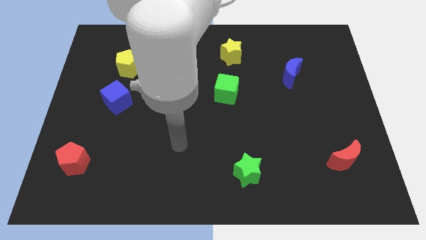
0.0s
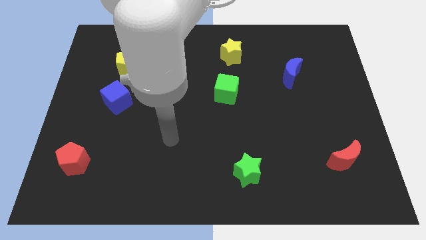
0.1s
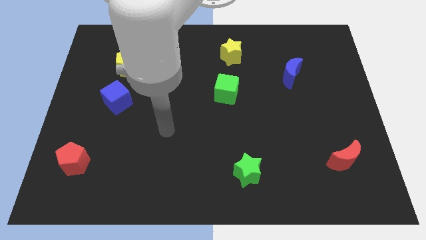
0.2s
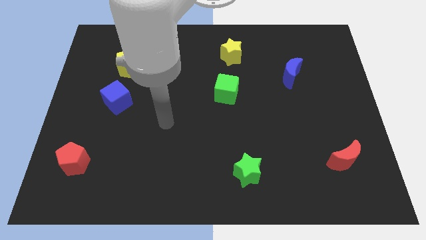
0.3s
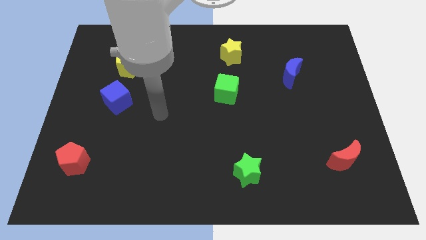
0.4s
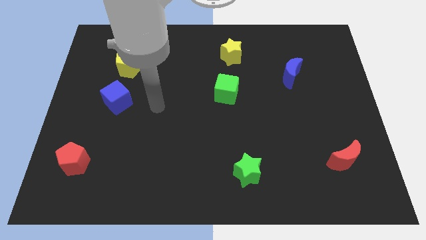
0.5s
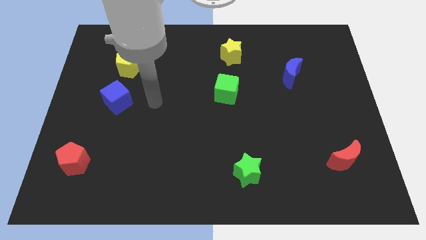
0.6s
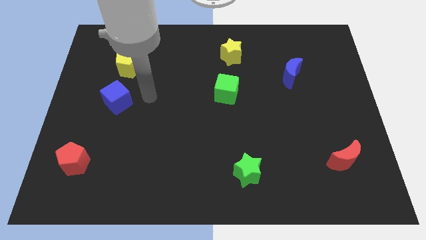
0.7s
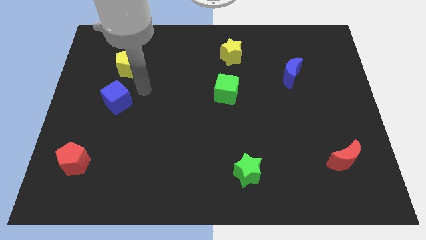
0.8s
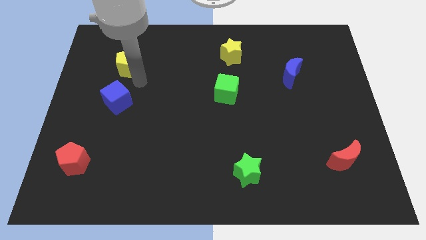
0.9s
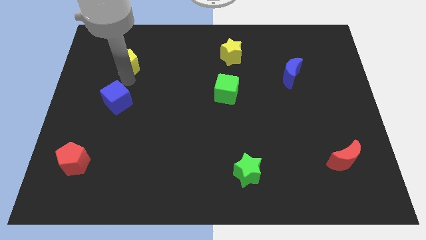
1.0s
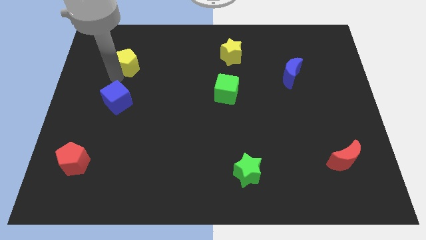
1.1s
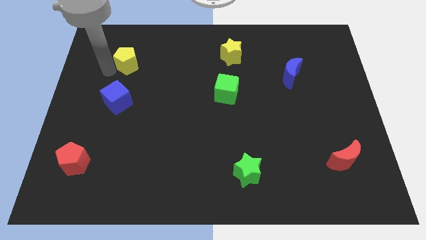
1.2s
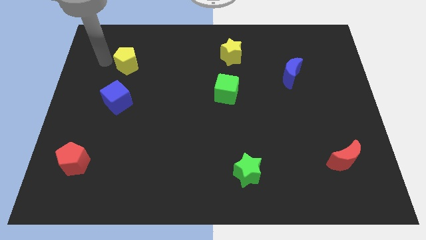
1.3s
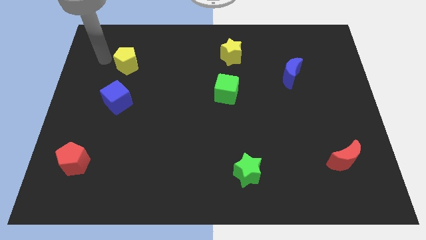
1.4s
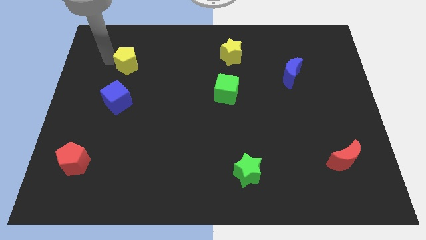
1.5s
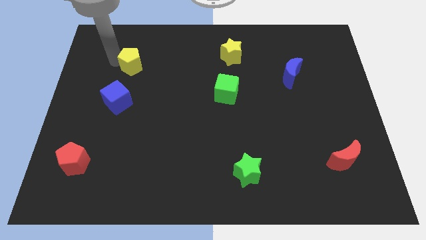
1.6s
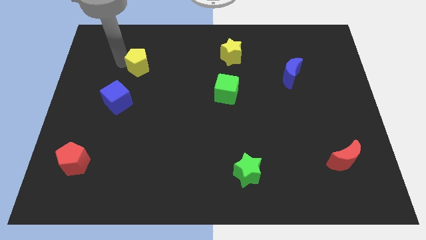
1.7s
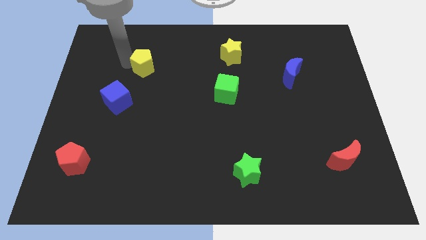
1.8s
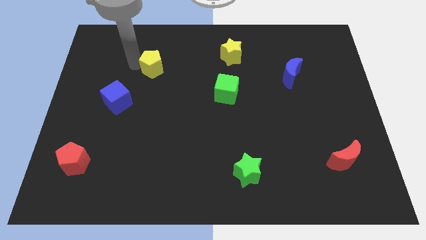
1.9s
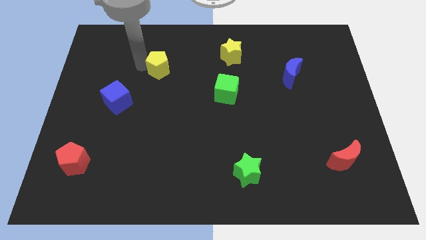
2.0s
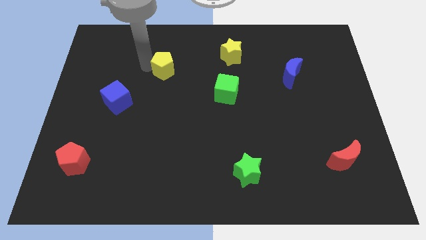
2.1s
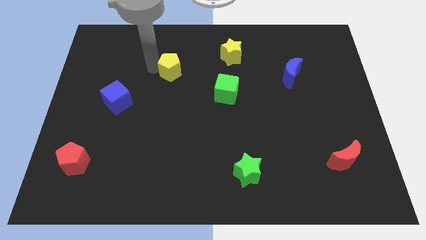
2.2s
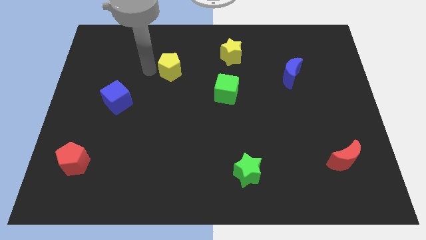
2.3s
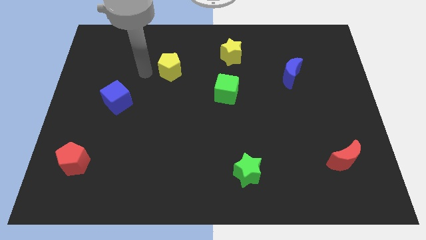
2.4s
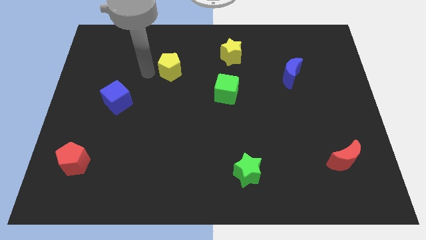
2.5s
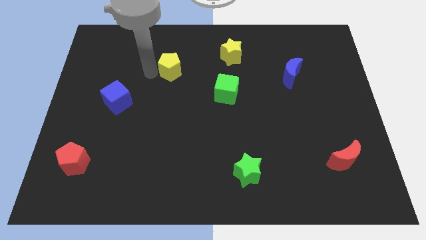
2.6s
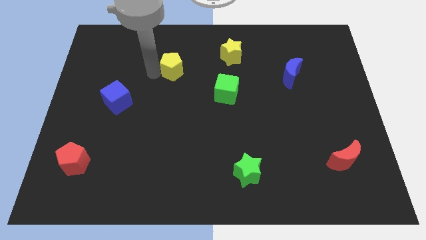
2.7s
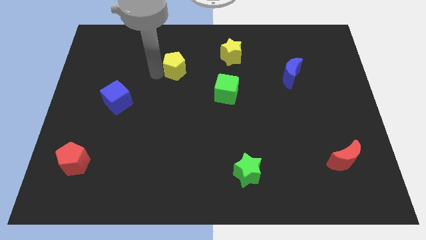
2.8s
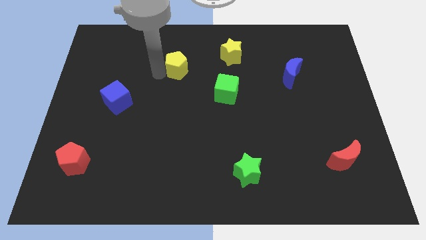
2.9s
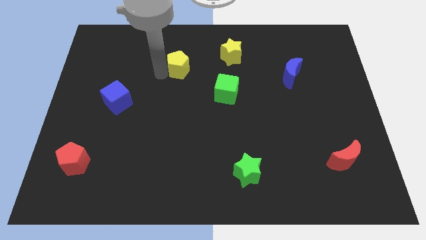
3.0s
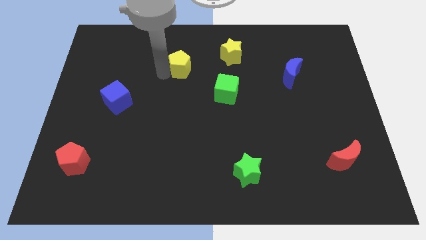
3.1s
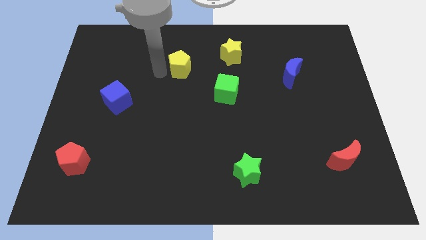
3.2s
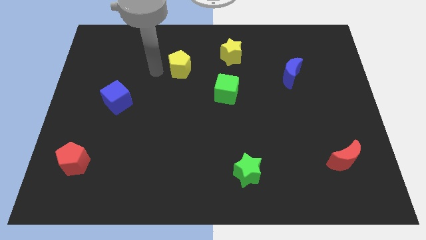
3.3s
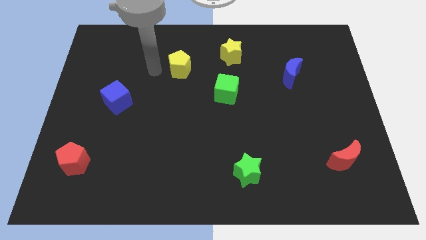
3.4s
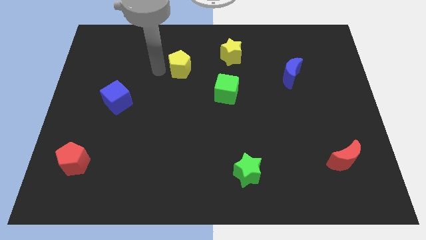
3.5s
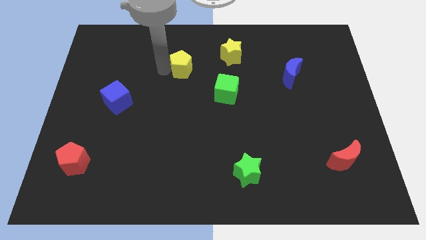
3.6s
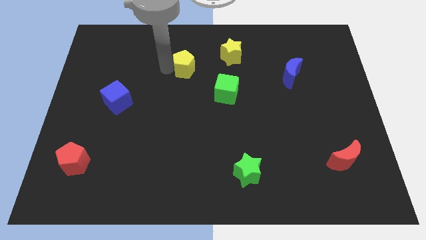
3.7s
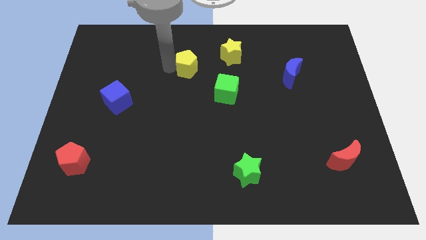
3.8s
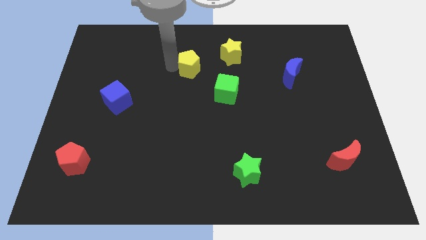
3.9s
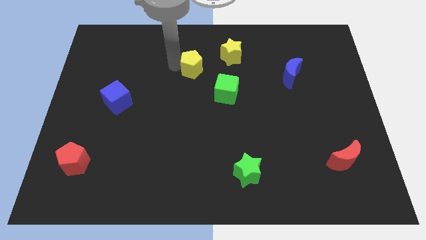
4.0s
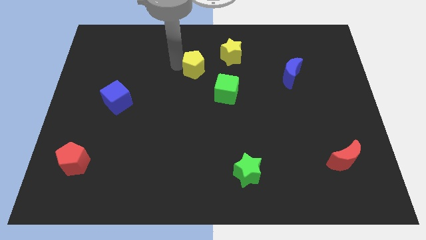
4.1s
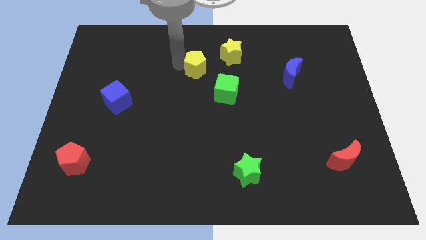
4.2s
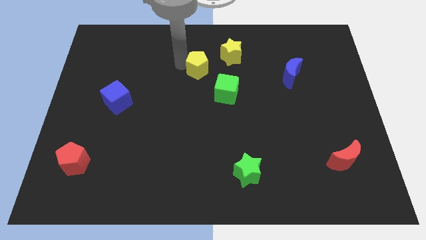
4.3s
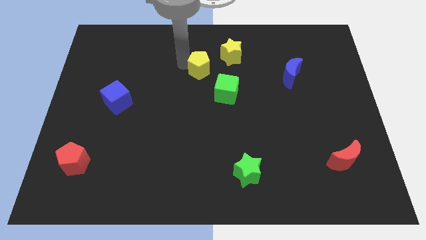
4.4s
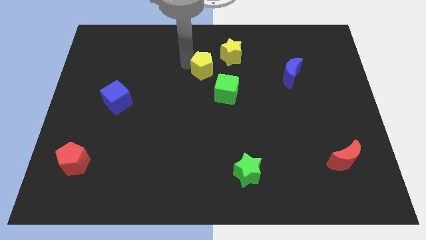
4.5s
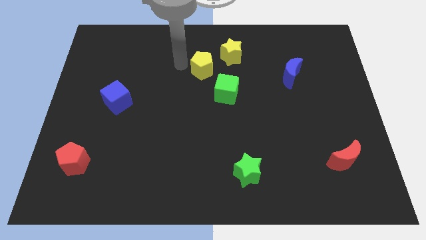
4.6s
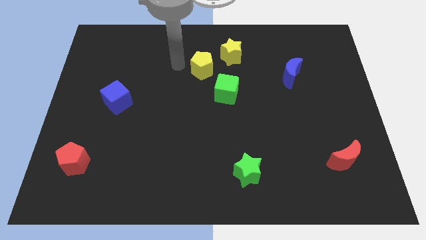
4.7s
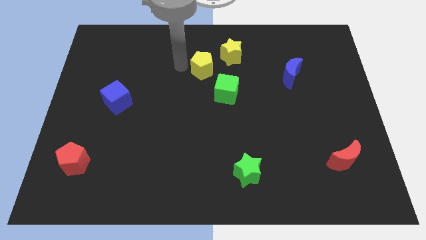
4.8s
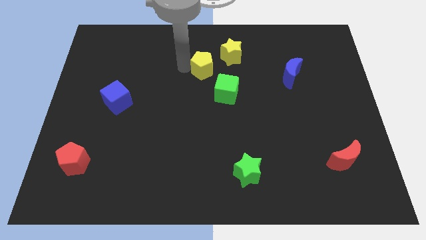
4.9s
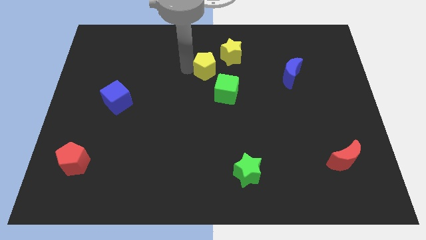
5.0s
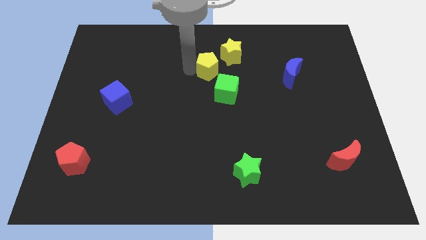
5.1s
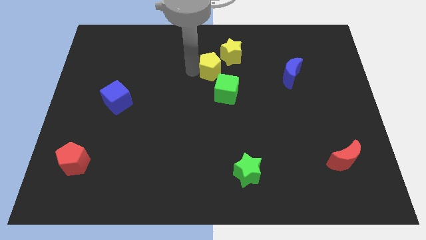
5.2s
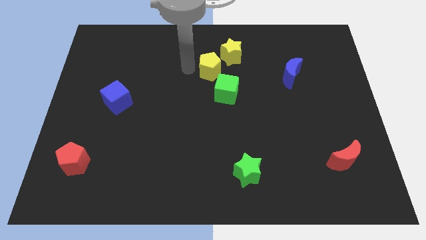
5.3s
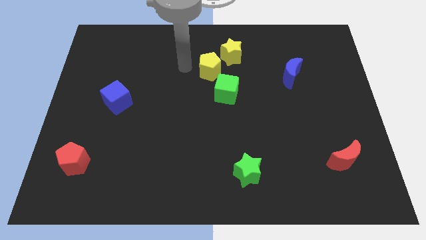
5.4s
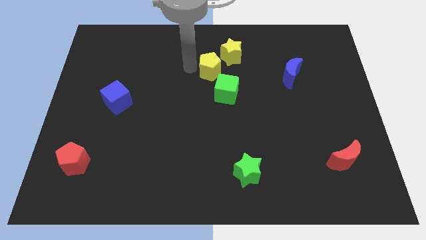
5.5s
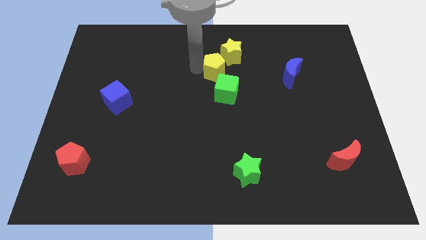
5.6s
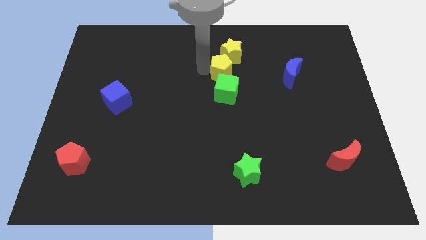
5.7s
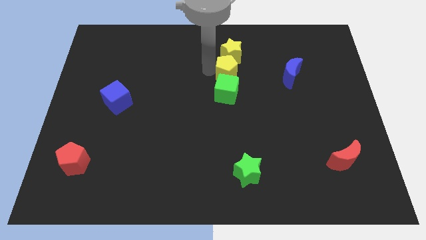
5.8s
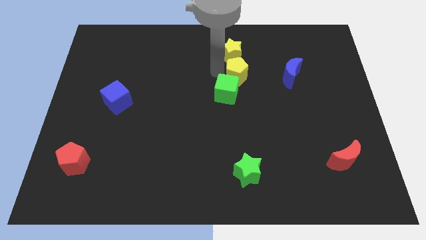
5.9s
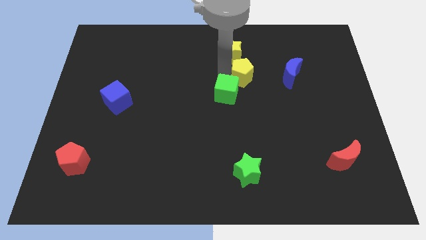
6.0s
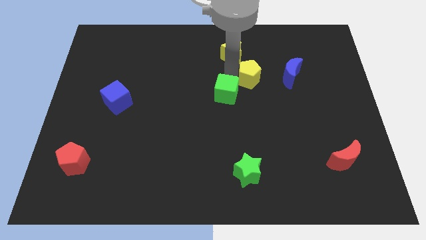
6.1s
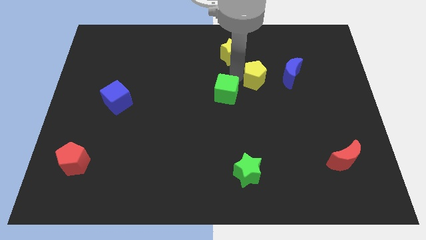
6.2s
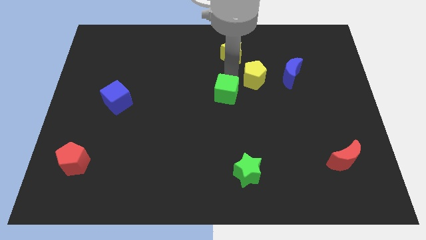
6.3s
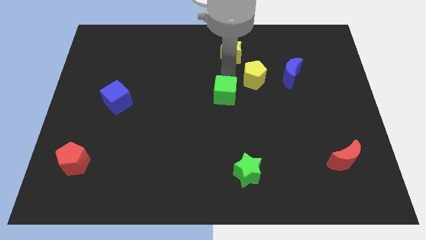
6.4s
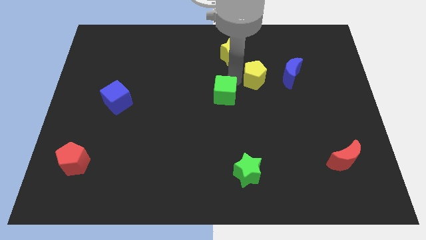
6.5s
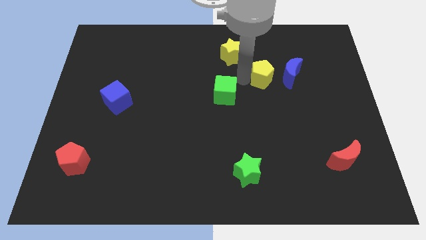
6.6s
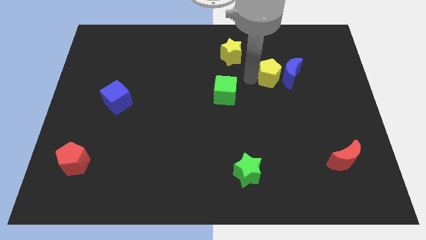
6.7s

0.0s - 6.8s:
slide the yellow pentagon to the blue moon

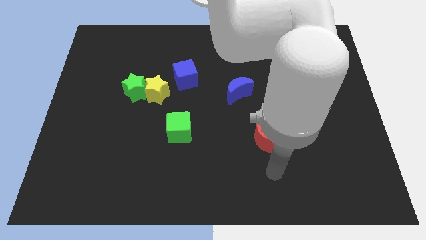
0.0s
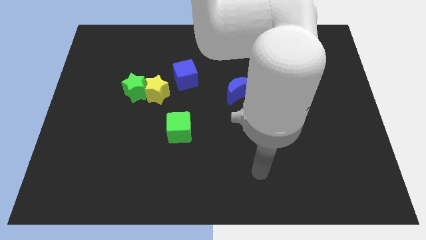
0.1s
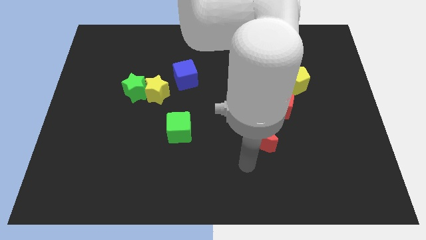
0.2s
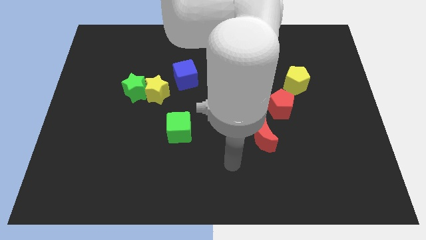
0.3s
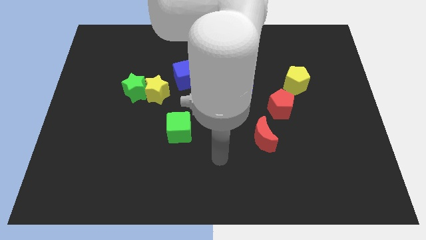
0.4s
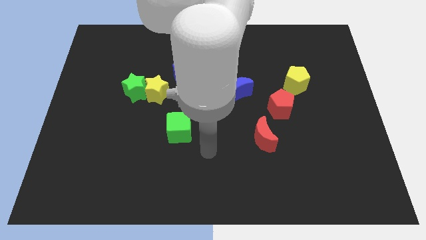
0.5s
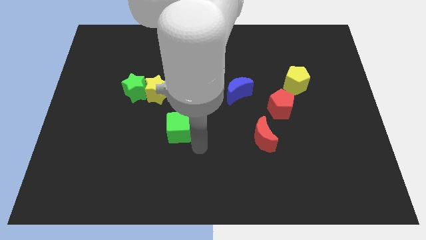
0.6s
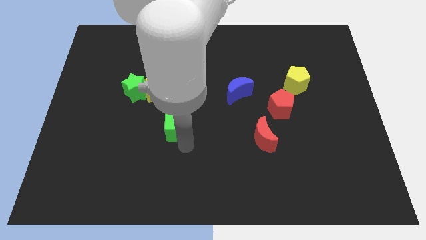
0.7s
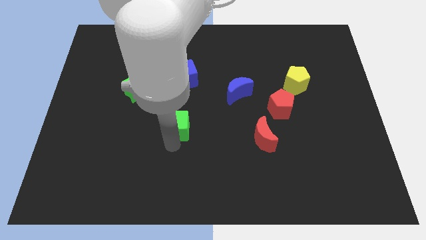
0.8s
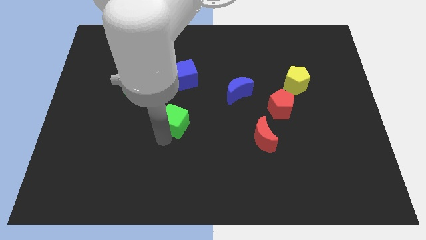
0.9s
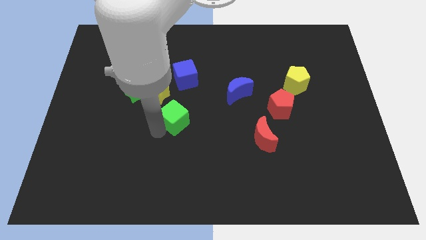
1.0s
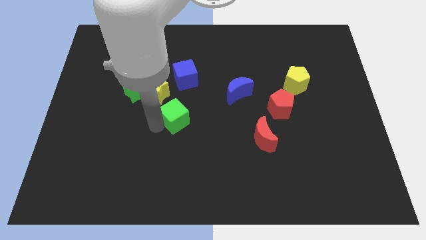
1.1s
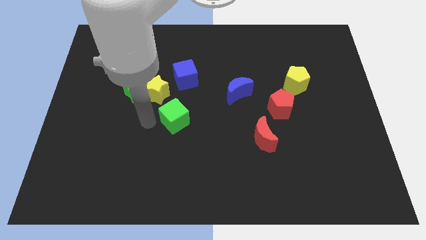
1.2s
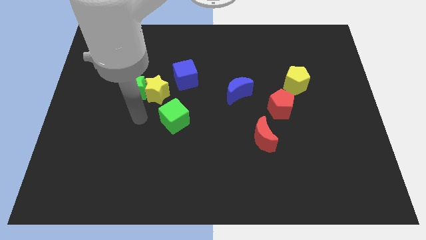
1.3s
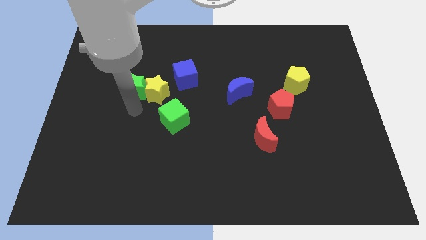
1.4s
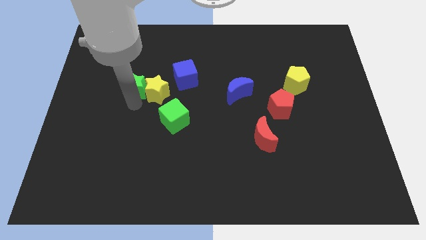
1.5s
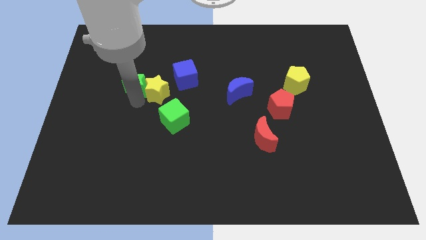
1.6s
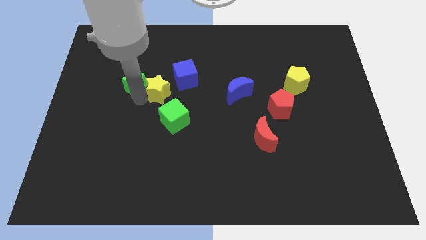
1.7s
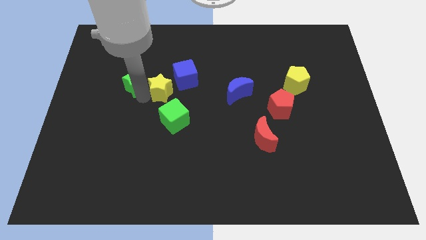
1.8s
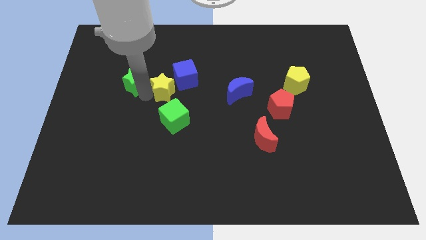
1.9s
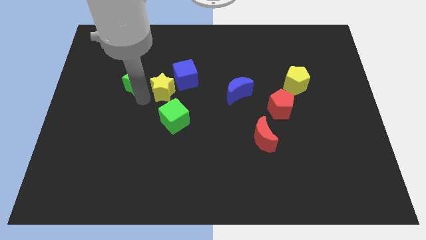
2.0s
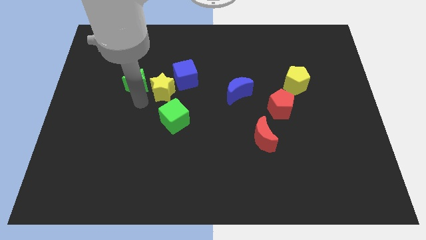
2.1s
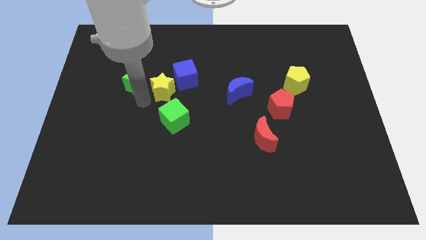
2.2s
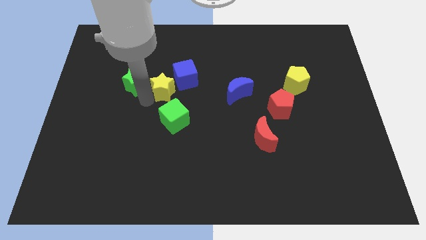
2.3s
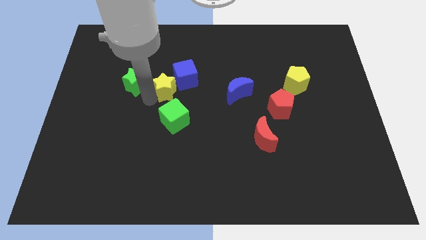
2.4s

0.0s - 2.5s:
push the yellow star towards the blue cube
